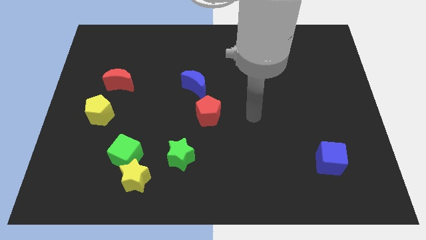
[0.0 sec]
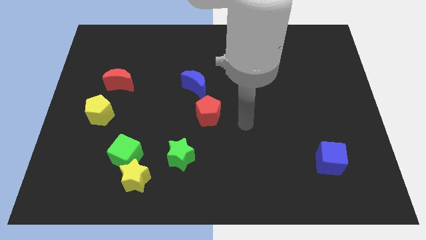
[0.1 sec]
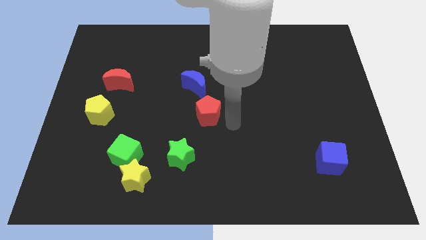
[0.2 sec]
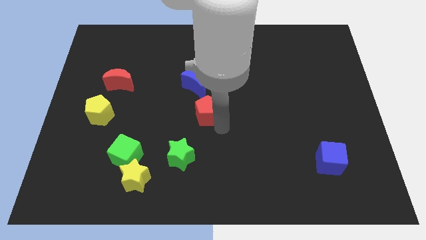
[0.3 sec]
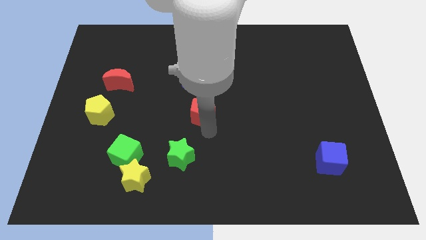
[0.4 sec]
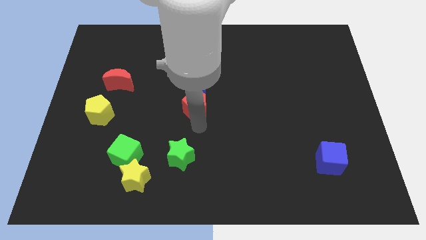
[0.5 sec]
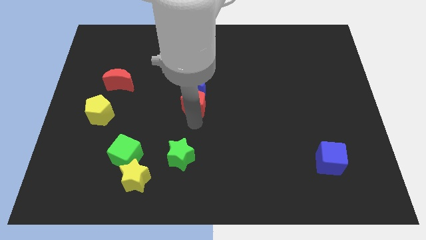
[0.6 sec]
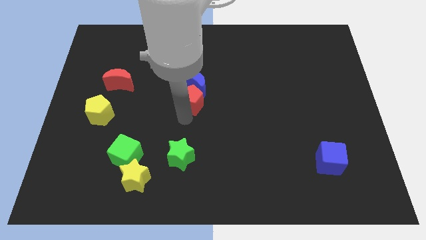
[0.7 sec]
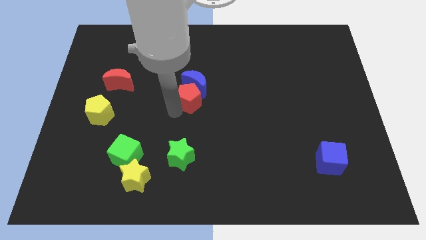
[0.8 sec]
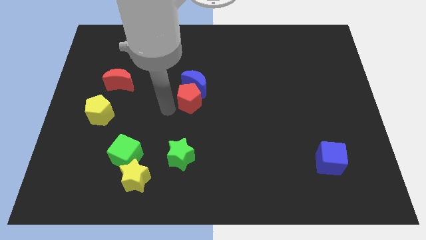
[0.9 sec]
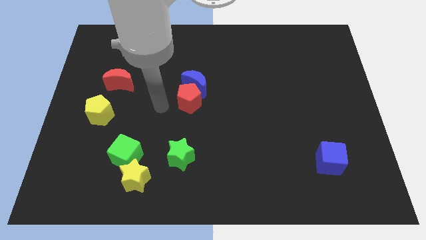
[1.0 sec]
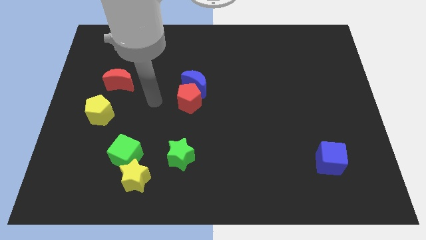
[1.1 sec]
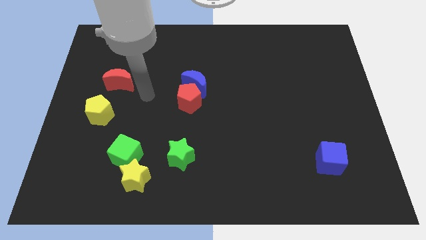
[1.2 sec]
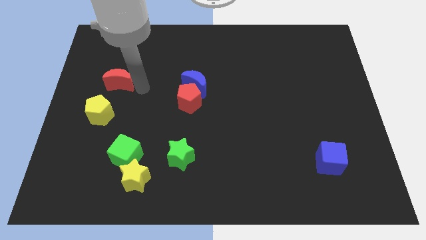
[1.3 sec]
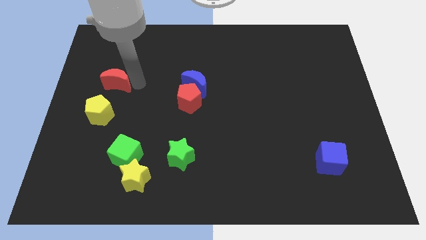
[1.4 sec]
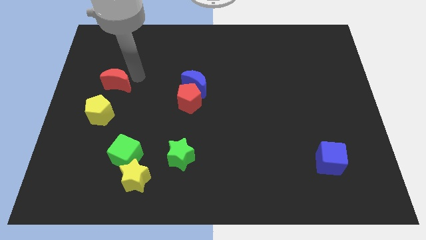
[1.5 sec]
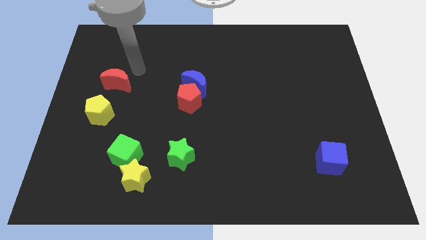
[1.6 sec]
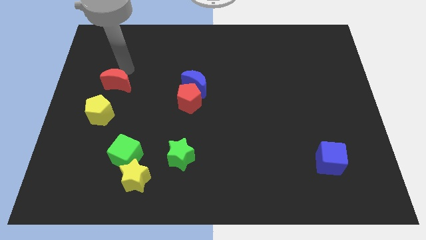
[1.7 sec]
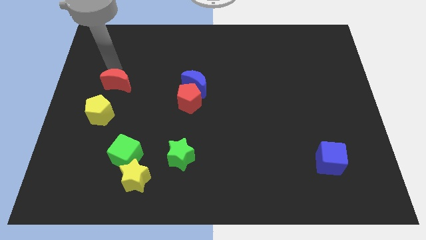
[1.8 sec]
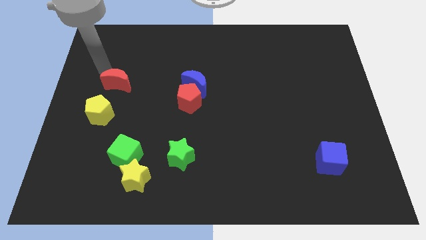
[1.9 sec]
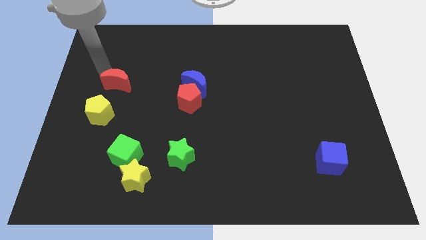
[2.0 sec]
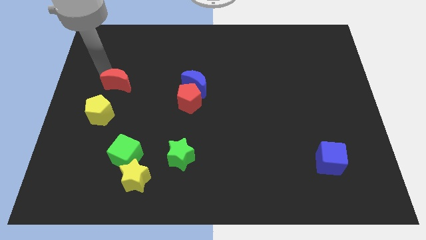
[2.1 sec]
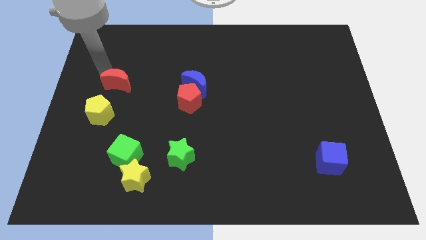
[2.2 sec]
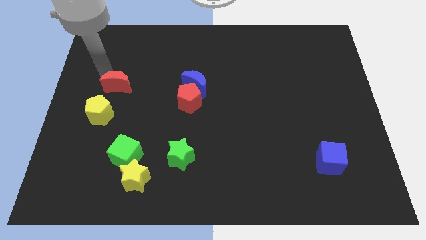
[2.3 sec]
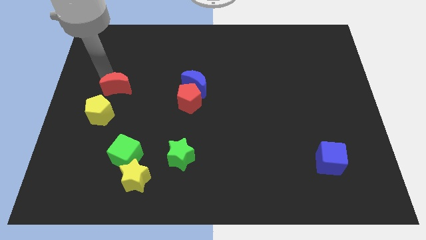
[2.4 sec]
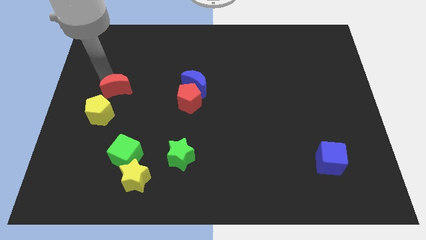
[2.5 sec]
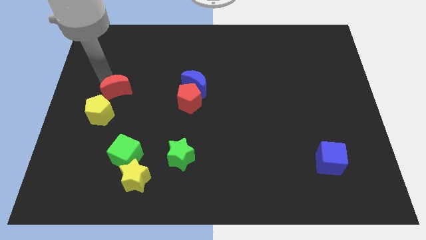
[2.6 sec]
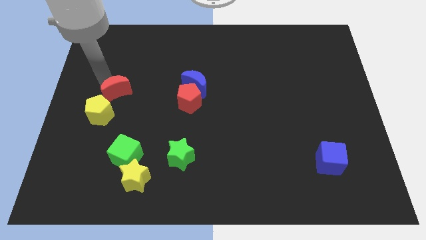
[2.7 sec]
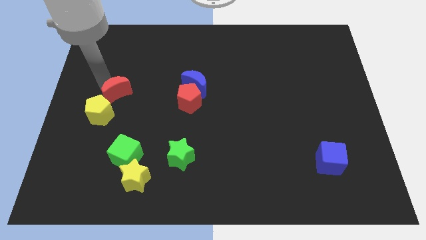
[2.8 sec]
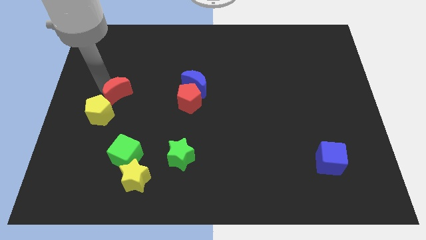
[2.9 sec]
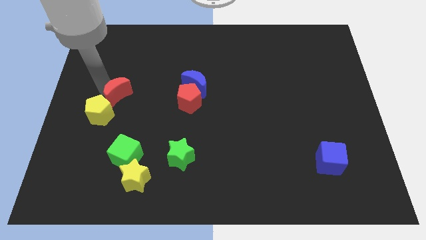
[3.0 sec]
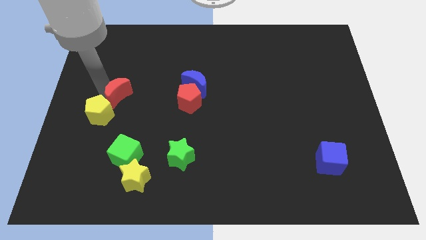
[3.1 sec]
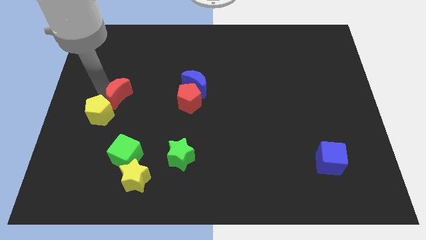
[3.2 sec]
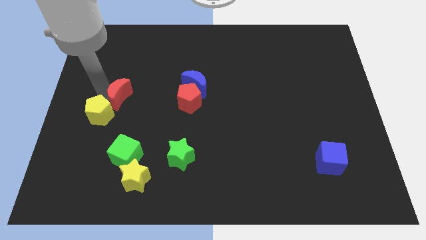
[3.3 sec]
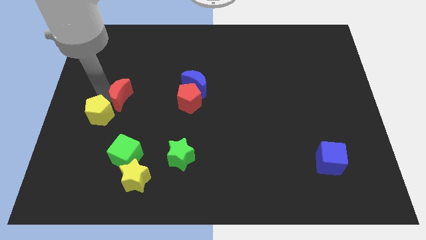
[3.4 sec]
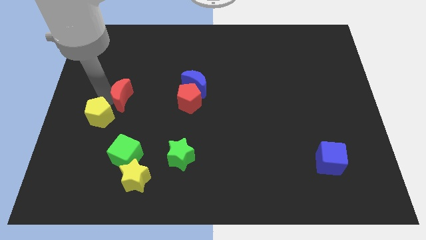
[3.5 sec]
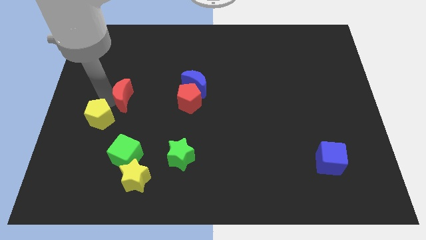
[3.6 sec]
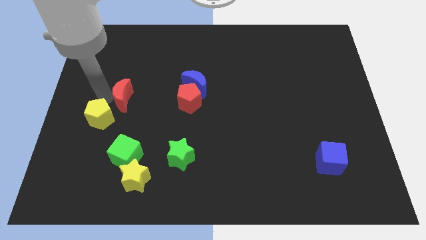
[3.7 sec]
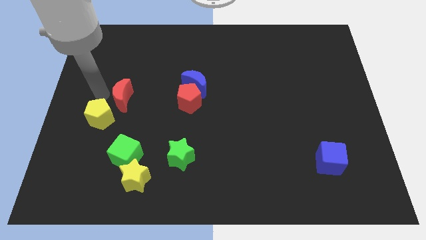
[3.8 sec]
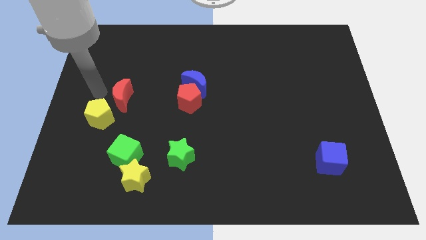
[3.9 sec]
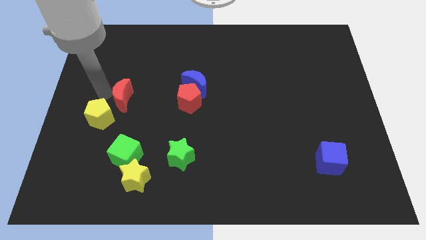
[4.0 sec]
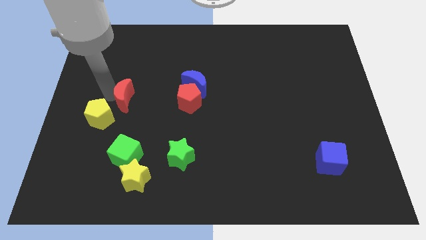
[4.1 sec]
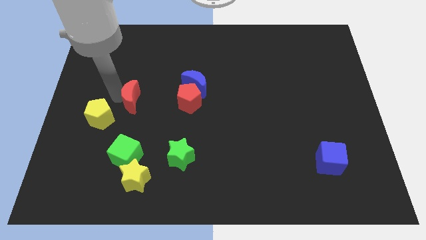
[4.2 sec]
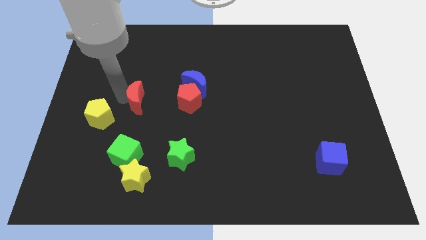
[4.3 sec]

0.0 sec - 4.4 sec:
slide the red moon a little down and right

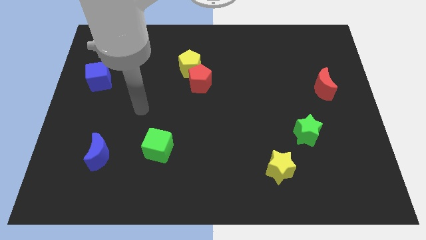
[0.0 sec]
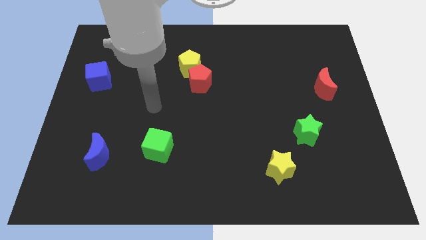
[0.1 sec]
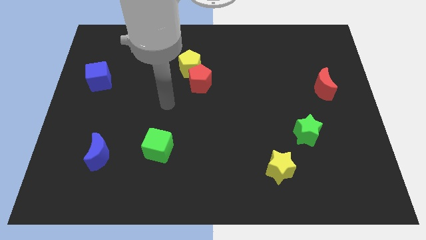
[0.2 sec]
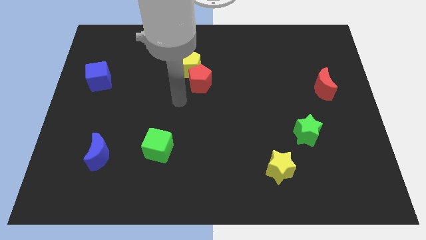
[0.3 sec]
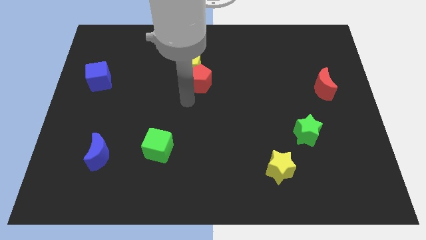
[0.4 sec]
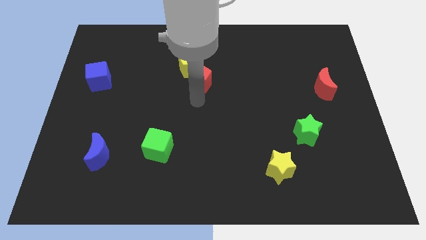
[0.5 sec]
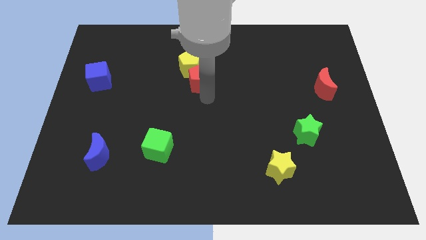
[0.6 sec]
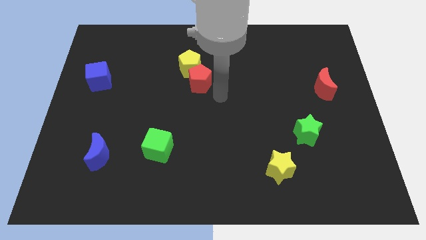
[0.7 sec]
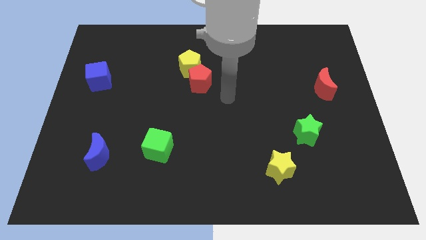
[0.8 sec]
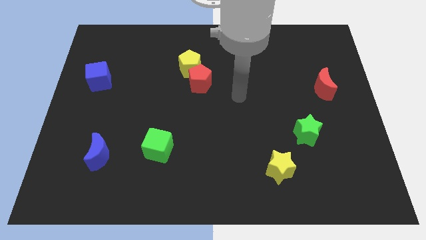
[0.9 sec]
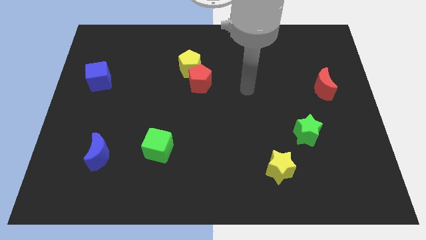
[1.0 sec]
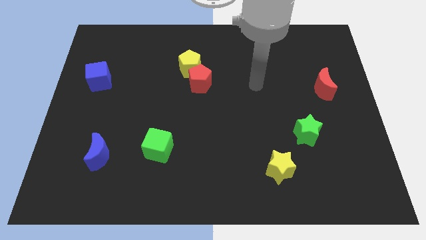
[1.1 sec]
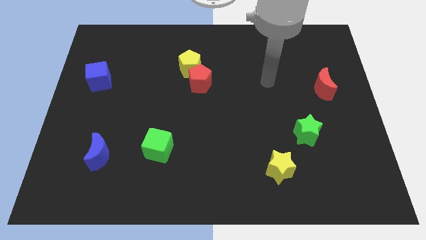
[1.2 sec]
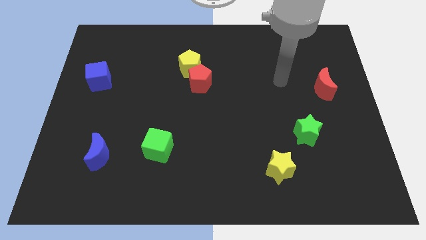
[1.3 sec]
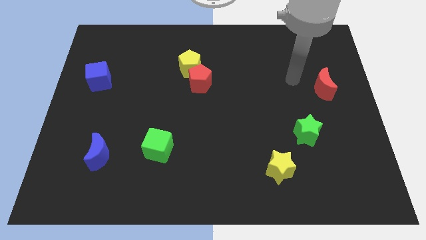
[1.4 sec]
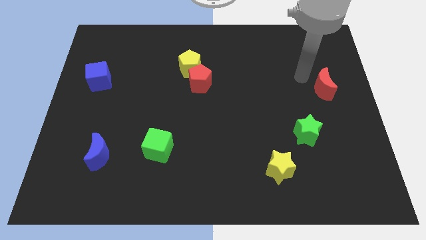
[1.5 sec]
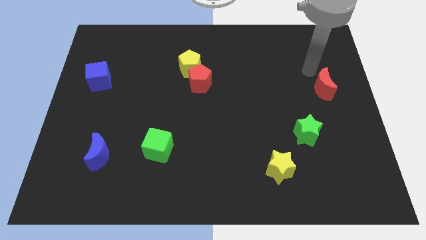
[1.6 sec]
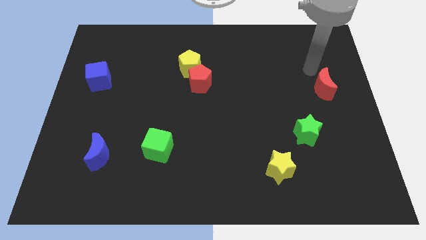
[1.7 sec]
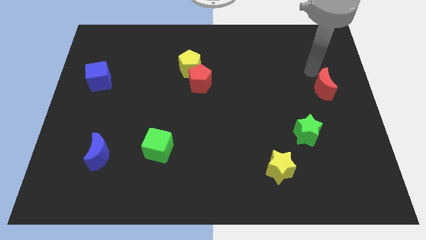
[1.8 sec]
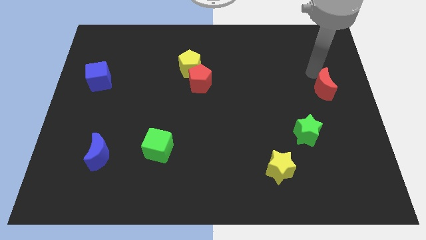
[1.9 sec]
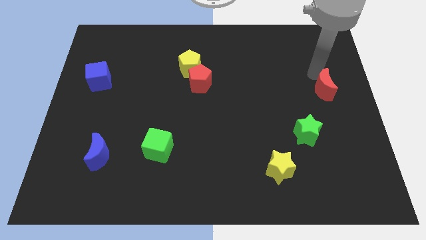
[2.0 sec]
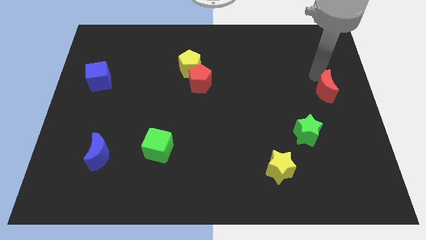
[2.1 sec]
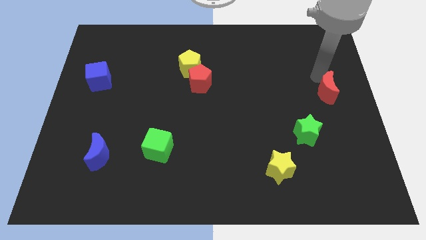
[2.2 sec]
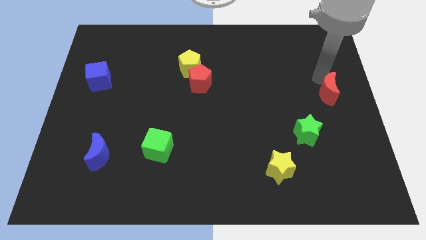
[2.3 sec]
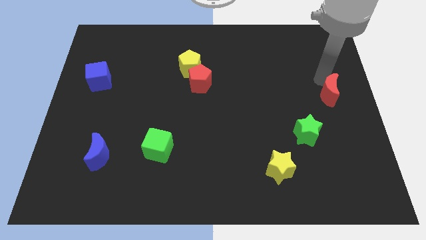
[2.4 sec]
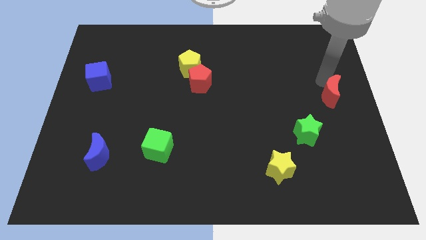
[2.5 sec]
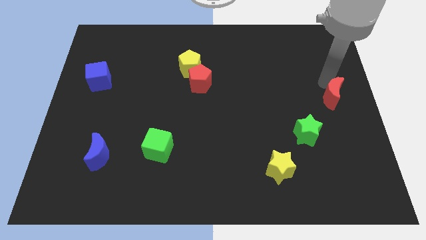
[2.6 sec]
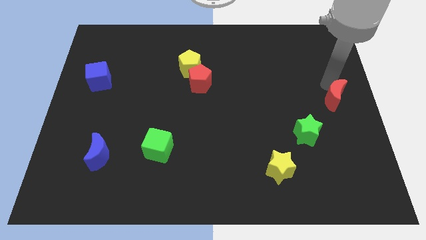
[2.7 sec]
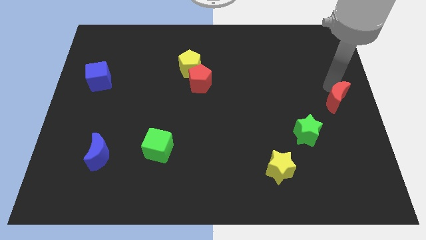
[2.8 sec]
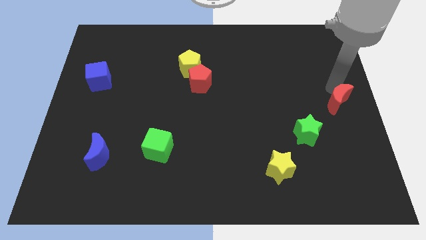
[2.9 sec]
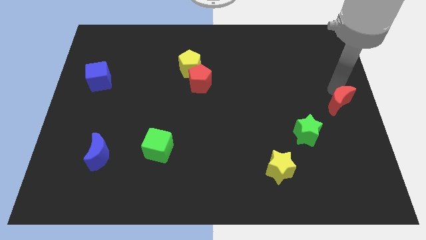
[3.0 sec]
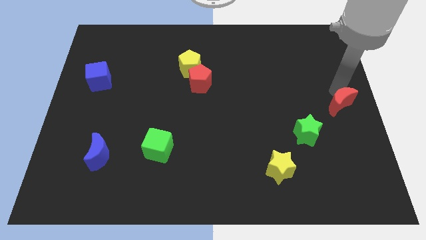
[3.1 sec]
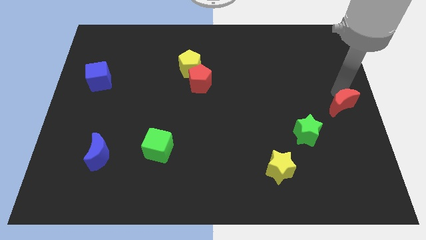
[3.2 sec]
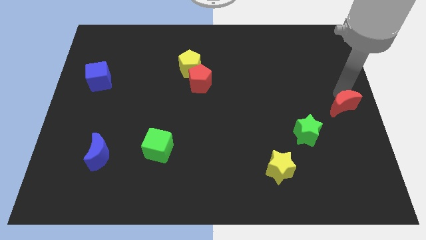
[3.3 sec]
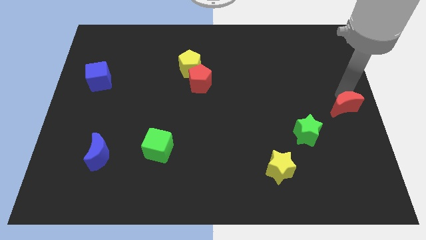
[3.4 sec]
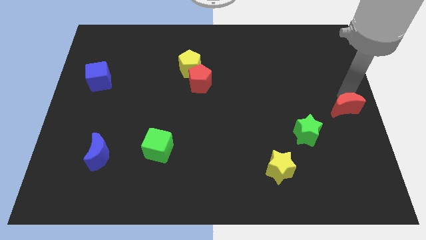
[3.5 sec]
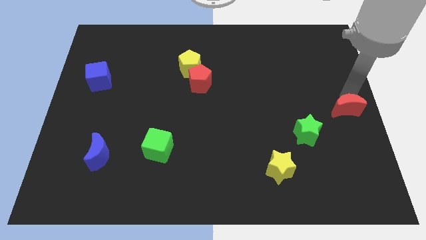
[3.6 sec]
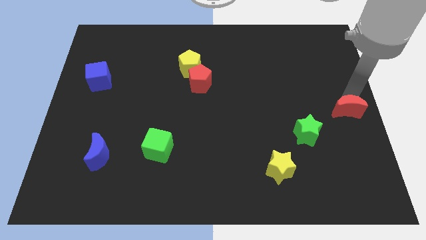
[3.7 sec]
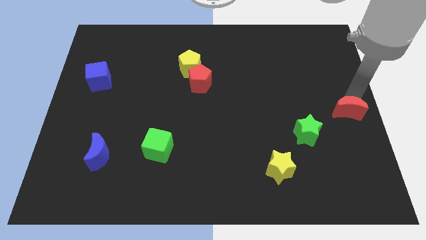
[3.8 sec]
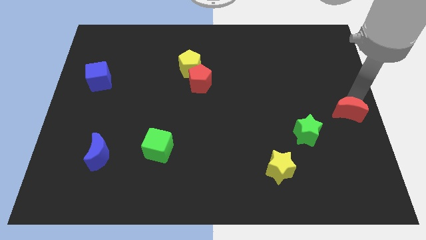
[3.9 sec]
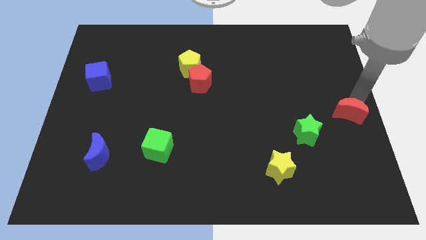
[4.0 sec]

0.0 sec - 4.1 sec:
slide the red moon slightly down
